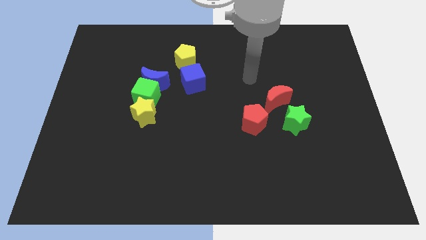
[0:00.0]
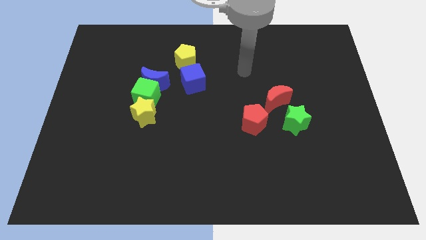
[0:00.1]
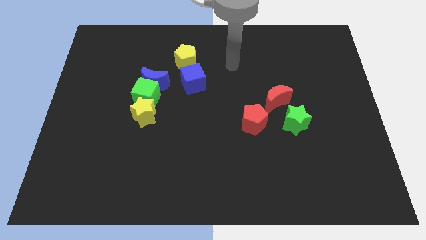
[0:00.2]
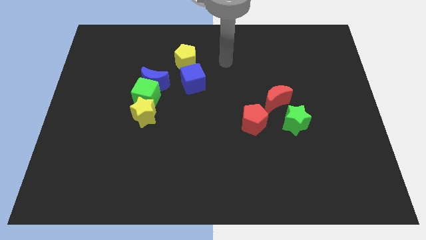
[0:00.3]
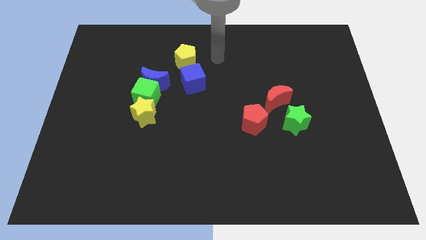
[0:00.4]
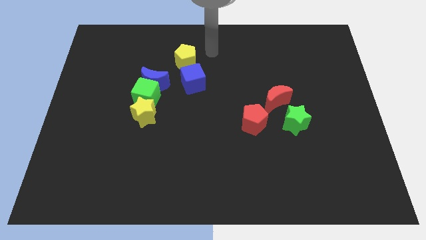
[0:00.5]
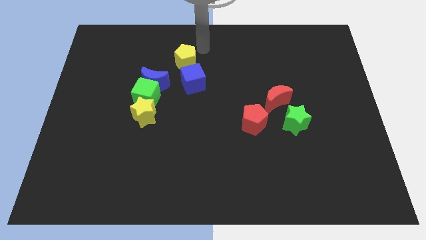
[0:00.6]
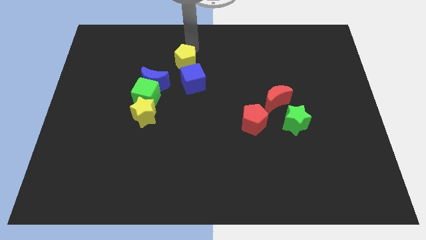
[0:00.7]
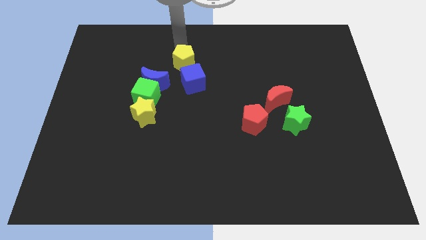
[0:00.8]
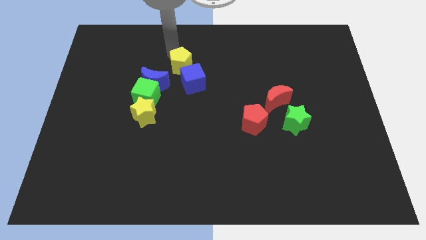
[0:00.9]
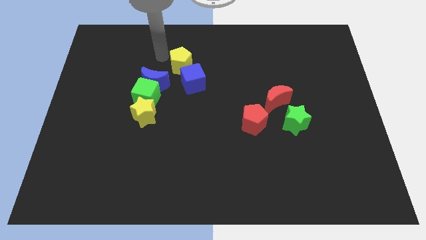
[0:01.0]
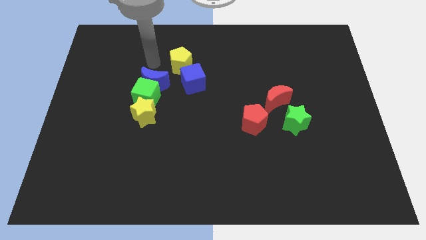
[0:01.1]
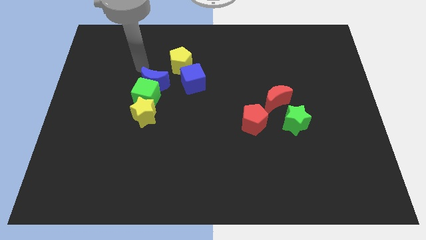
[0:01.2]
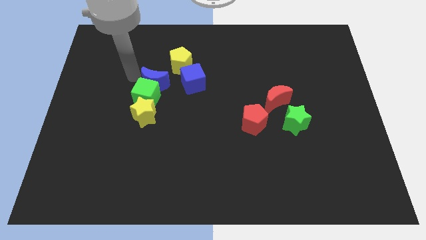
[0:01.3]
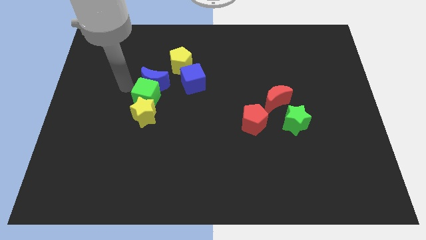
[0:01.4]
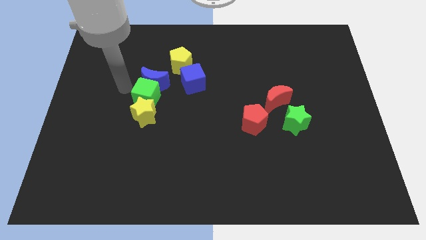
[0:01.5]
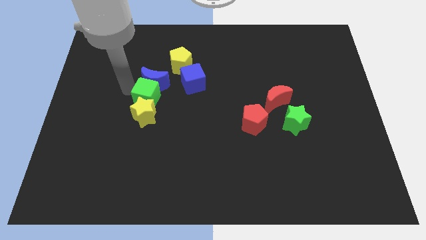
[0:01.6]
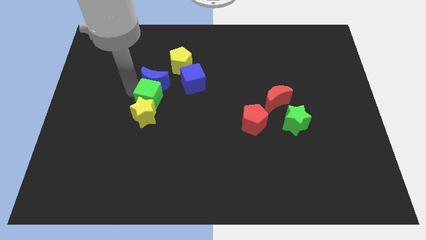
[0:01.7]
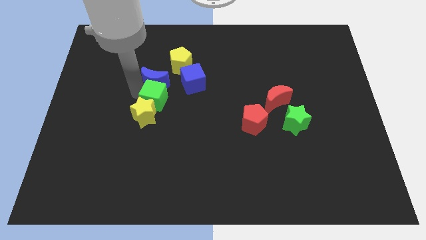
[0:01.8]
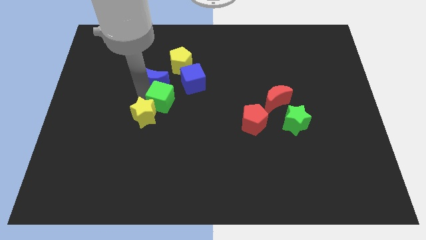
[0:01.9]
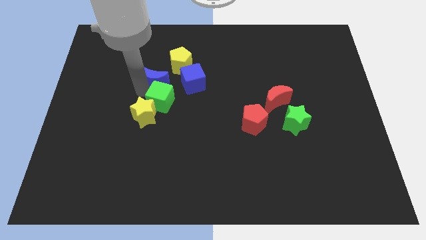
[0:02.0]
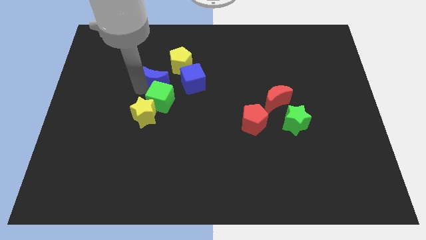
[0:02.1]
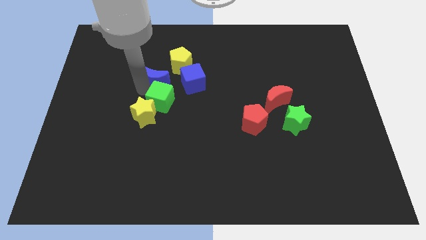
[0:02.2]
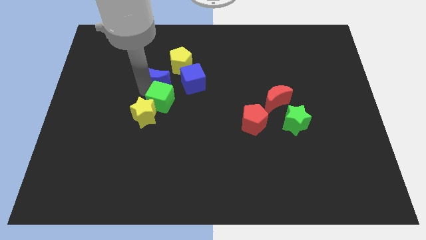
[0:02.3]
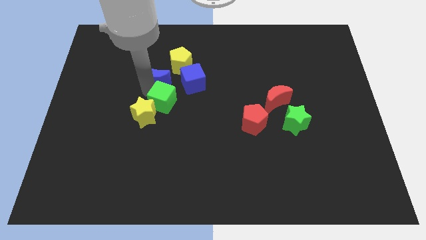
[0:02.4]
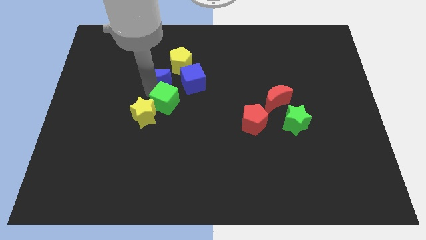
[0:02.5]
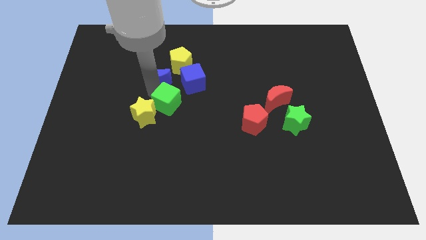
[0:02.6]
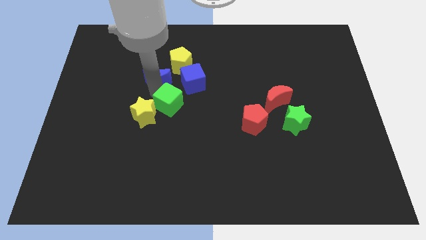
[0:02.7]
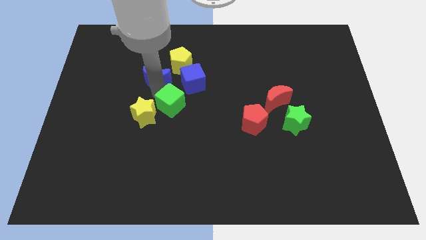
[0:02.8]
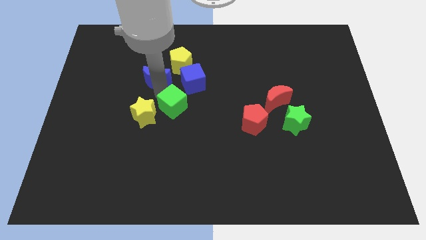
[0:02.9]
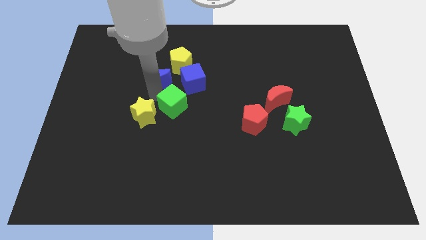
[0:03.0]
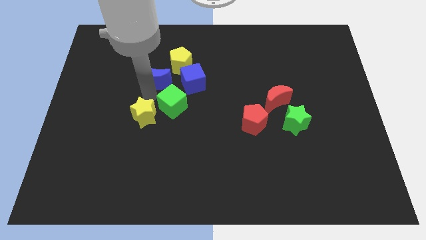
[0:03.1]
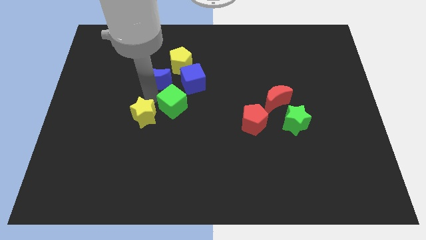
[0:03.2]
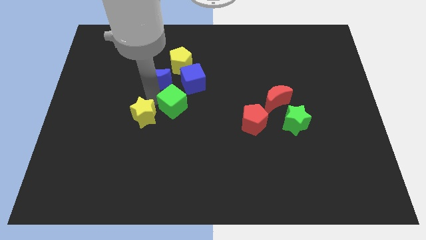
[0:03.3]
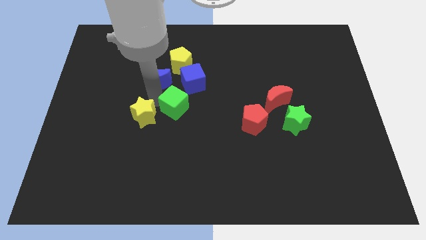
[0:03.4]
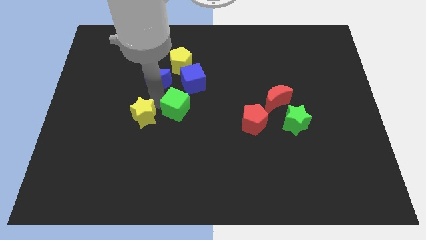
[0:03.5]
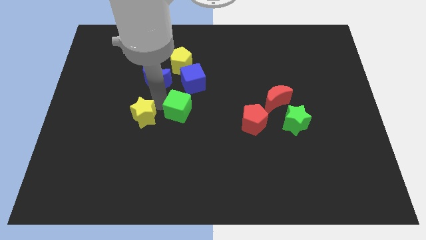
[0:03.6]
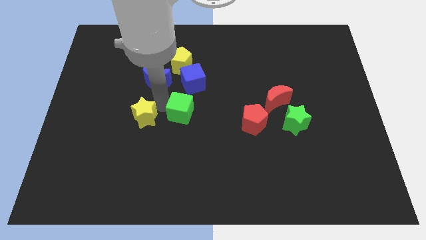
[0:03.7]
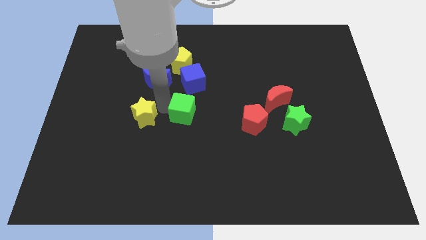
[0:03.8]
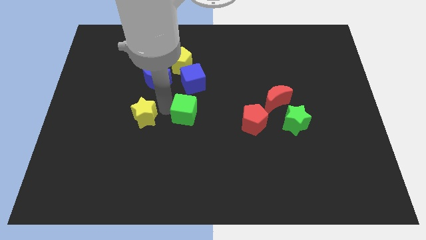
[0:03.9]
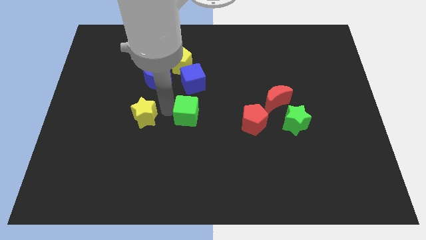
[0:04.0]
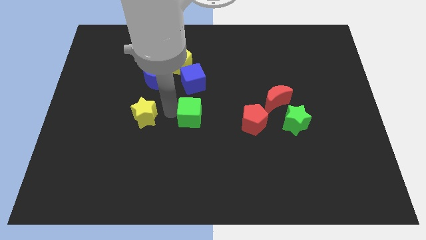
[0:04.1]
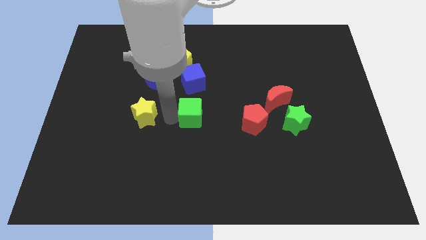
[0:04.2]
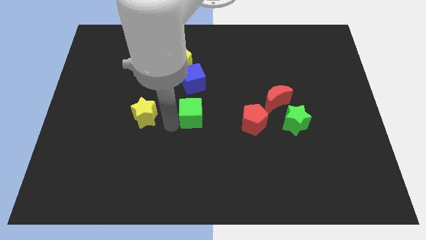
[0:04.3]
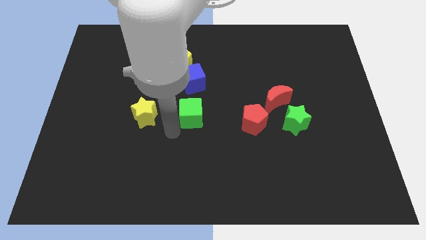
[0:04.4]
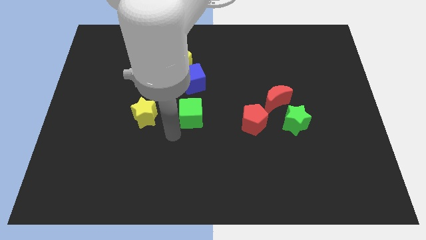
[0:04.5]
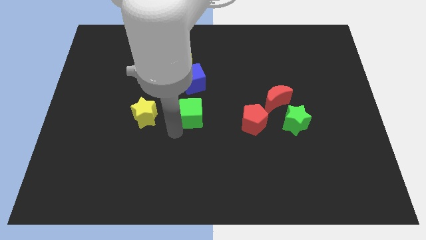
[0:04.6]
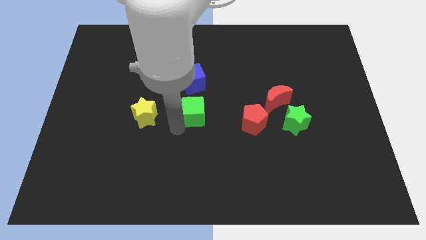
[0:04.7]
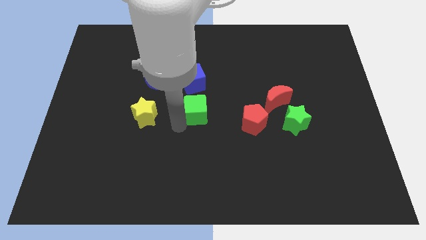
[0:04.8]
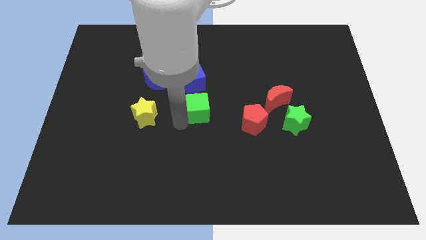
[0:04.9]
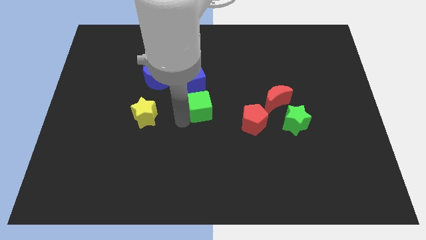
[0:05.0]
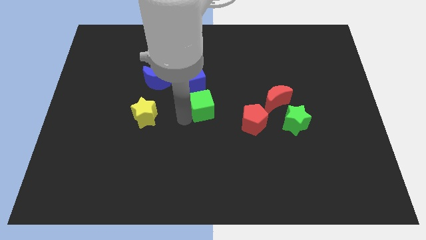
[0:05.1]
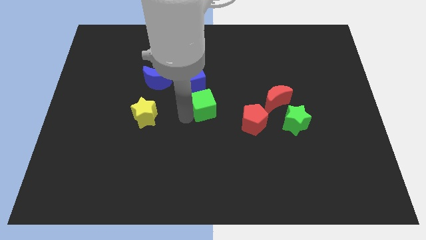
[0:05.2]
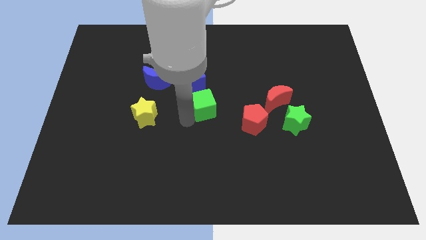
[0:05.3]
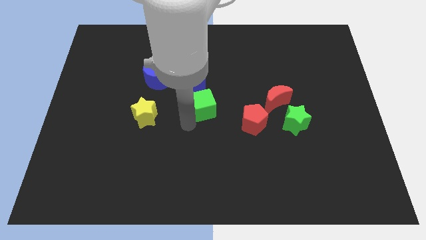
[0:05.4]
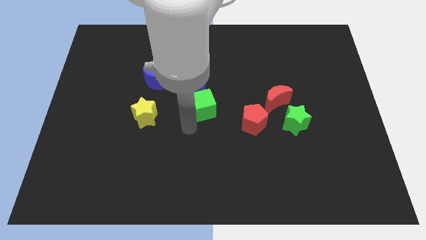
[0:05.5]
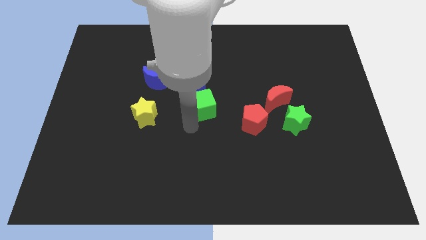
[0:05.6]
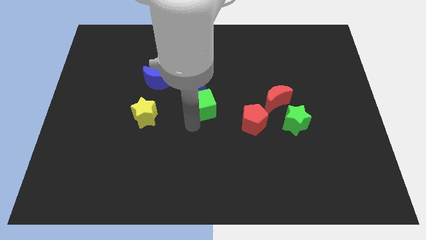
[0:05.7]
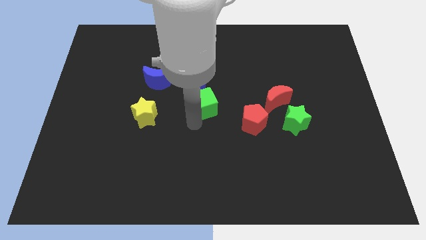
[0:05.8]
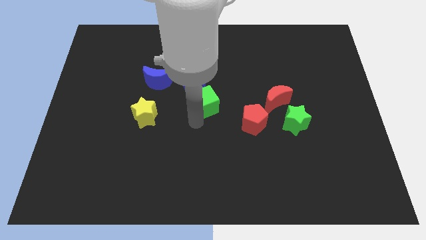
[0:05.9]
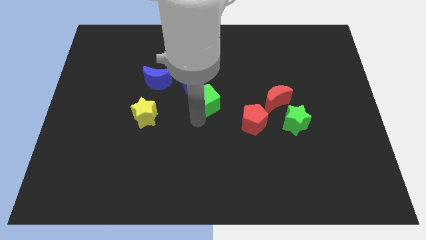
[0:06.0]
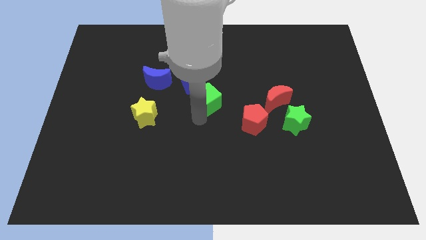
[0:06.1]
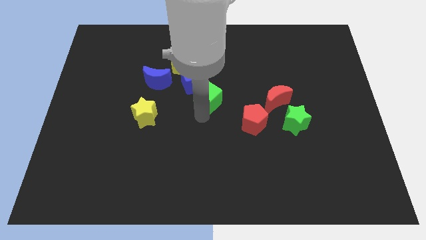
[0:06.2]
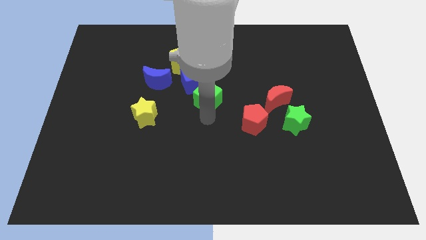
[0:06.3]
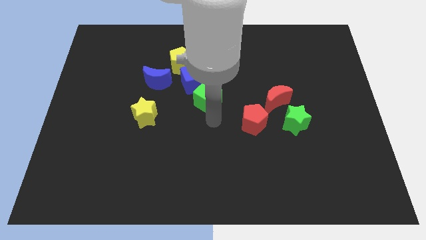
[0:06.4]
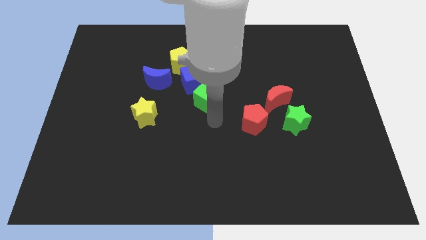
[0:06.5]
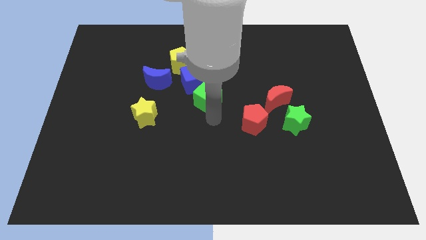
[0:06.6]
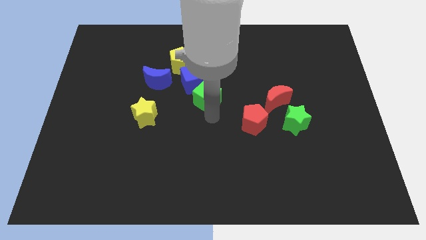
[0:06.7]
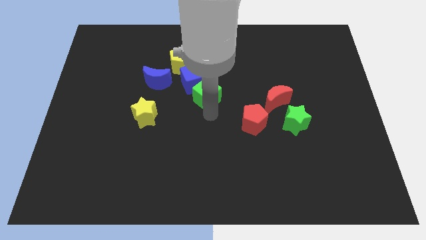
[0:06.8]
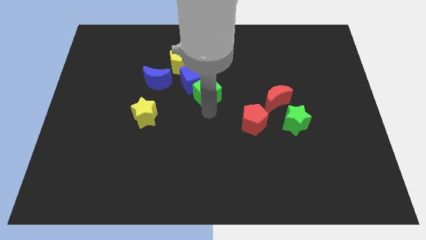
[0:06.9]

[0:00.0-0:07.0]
push the green cube to the bottom right of the yellow pentagon
